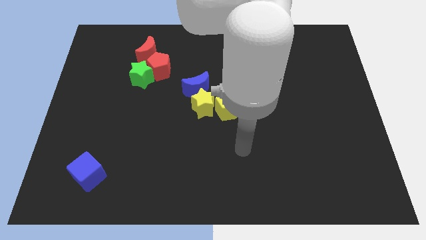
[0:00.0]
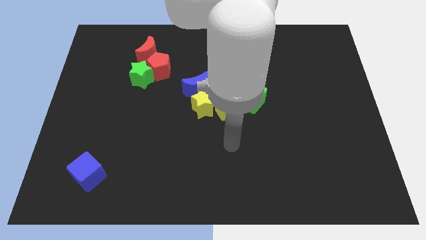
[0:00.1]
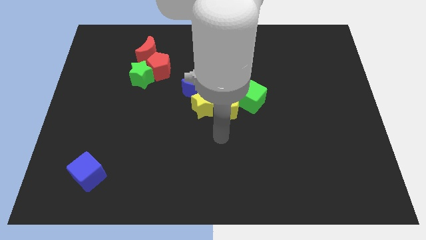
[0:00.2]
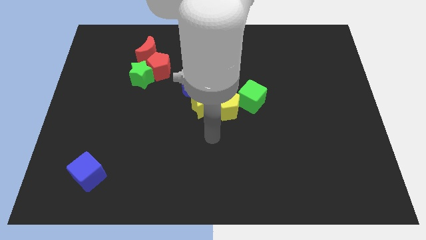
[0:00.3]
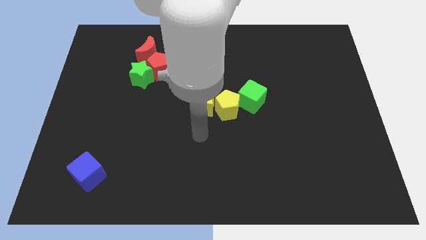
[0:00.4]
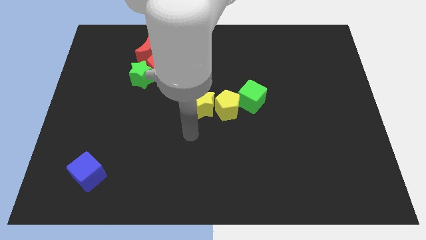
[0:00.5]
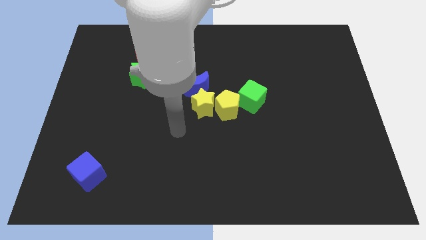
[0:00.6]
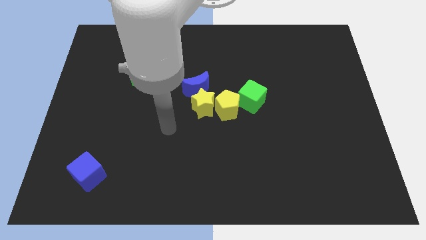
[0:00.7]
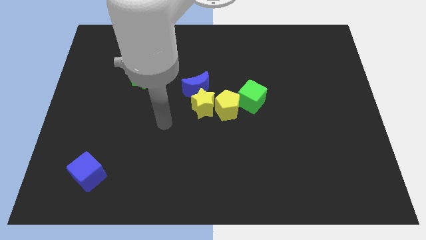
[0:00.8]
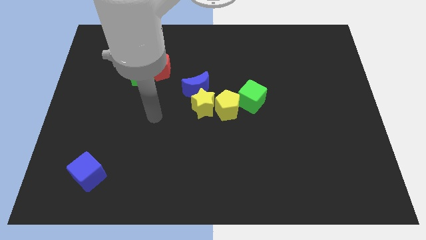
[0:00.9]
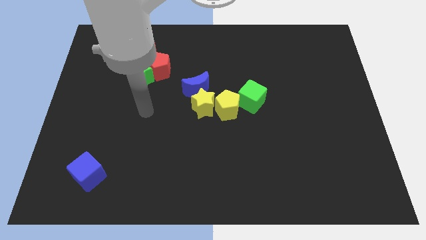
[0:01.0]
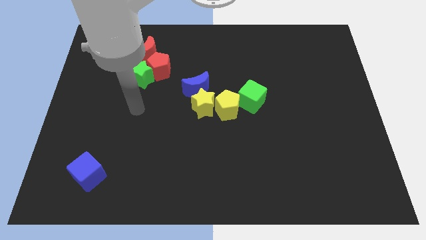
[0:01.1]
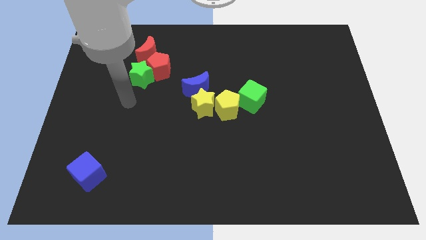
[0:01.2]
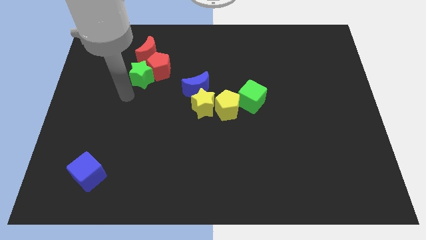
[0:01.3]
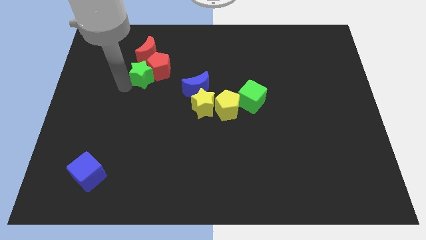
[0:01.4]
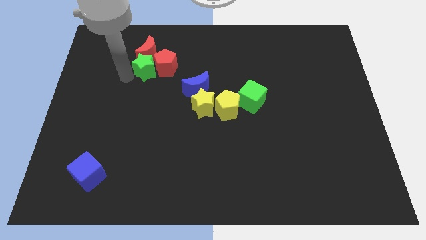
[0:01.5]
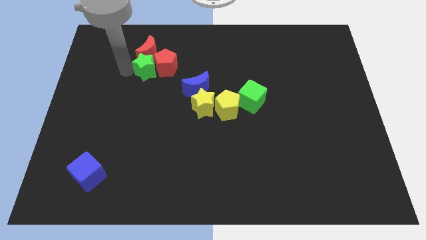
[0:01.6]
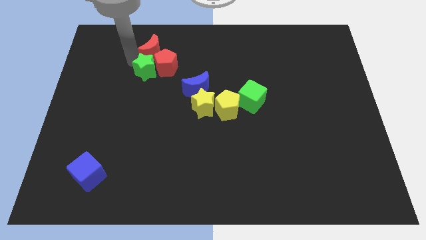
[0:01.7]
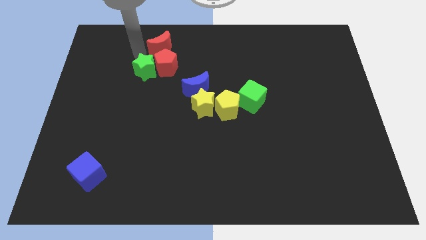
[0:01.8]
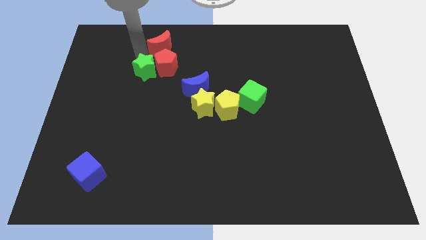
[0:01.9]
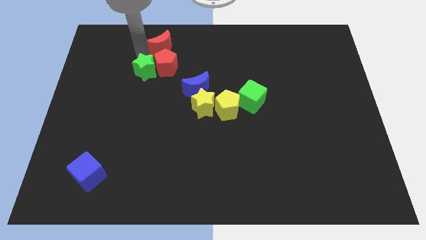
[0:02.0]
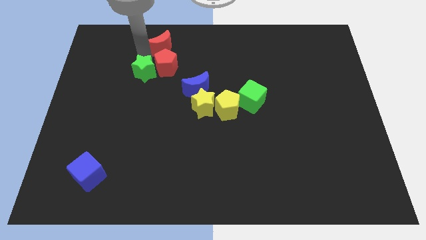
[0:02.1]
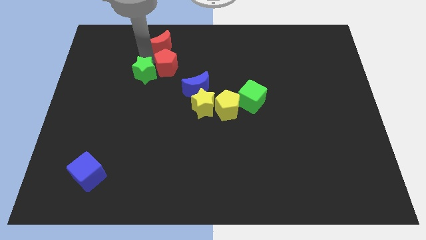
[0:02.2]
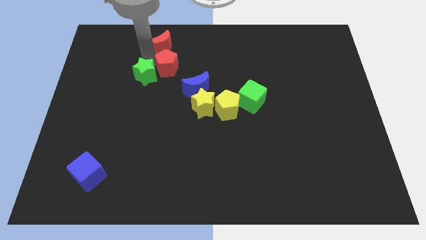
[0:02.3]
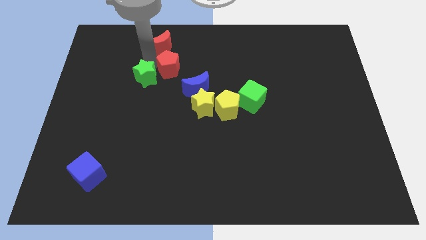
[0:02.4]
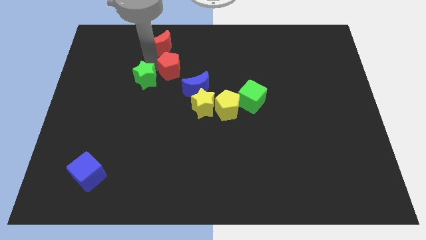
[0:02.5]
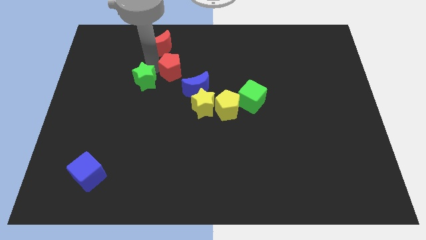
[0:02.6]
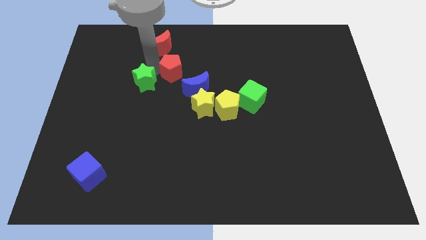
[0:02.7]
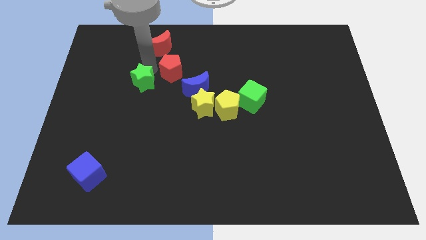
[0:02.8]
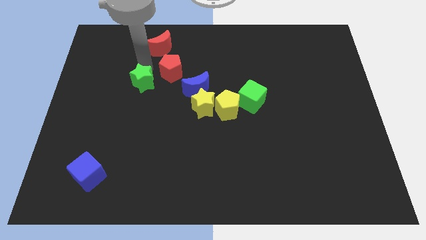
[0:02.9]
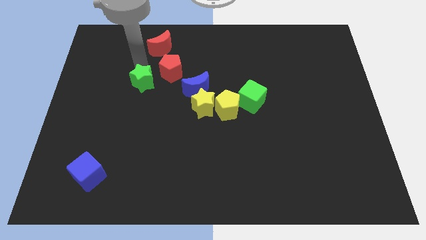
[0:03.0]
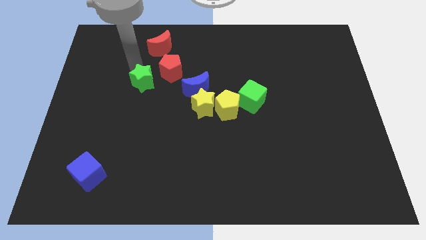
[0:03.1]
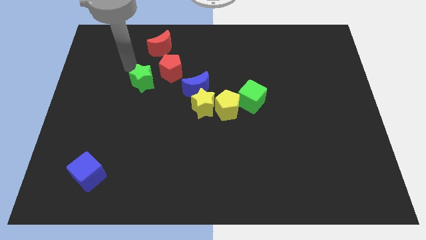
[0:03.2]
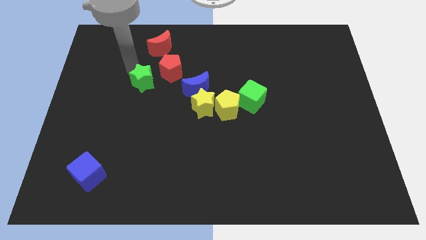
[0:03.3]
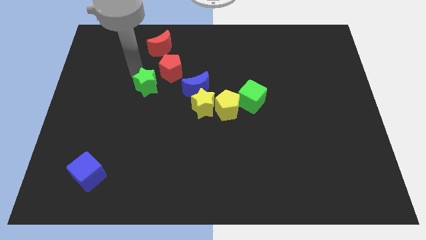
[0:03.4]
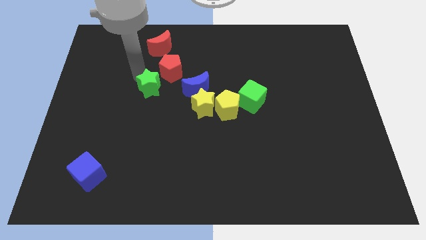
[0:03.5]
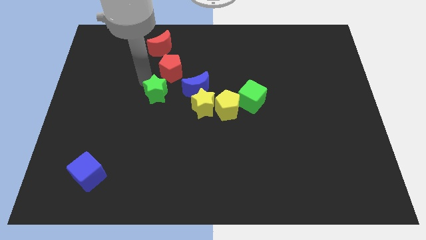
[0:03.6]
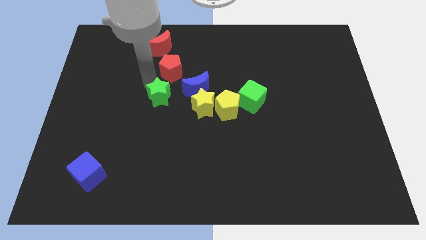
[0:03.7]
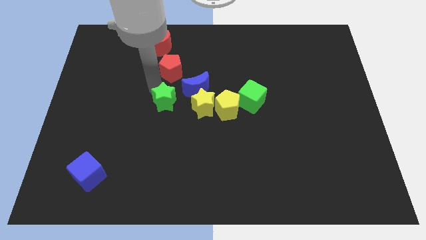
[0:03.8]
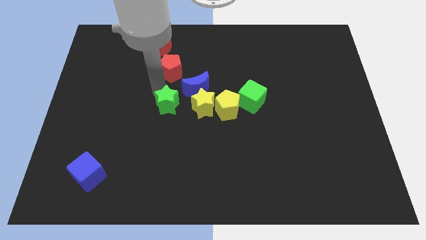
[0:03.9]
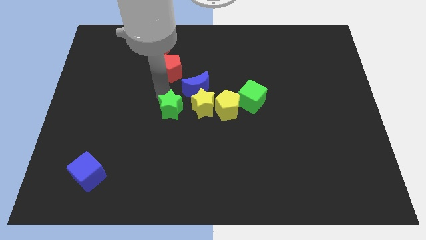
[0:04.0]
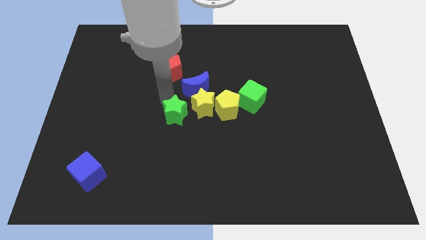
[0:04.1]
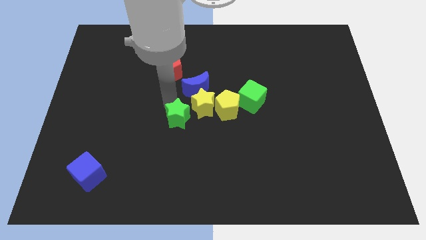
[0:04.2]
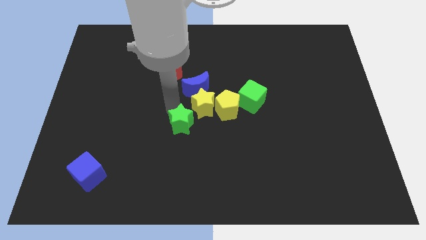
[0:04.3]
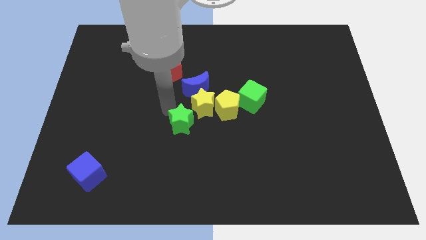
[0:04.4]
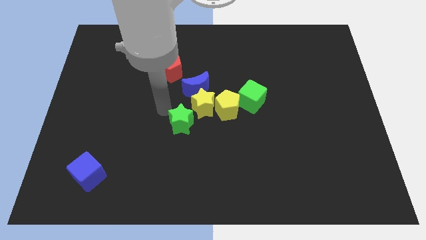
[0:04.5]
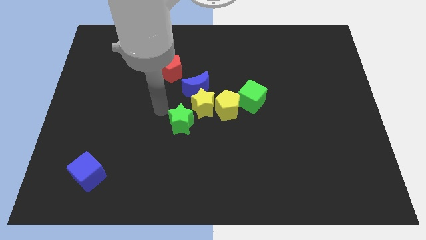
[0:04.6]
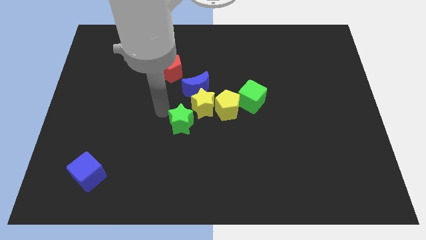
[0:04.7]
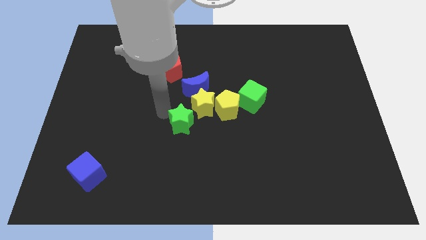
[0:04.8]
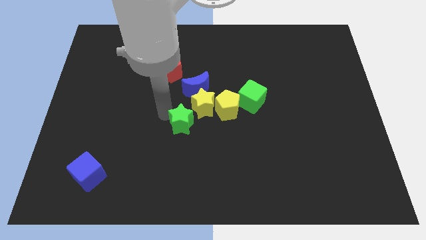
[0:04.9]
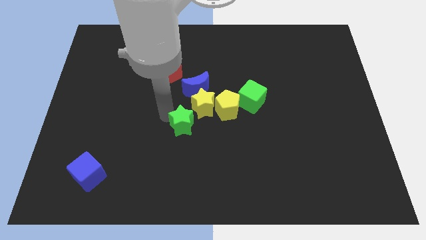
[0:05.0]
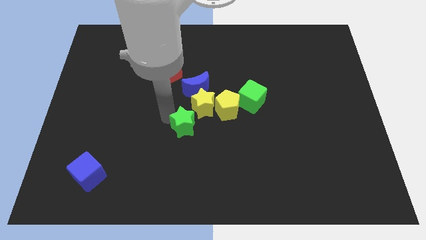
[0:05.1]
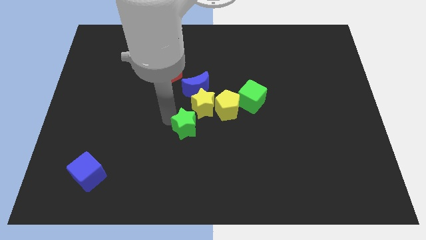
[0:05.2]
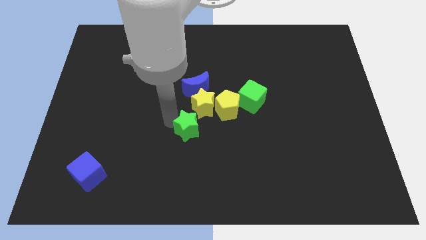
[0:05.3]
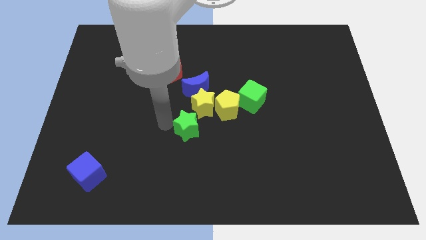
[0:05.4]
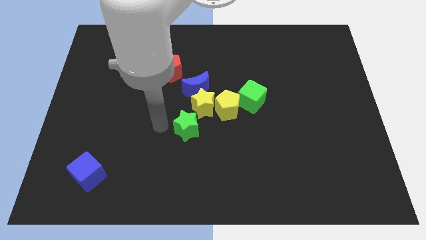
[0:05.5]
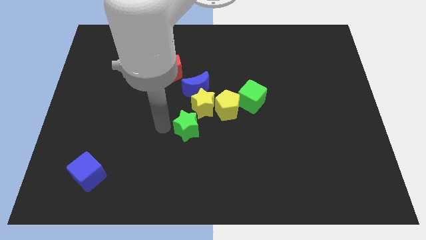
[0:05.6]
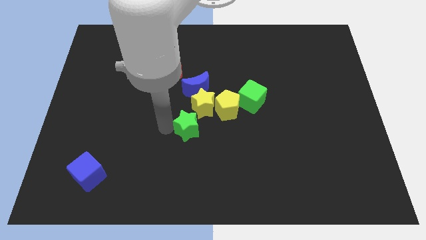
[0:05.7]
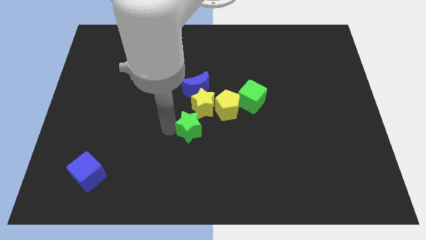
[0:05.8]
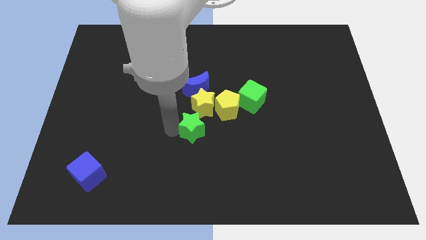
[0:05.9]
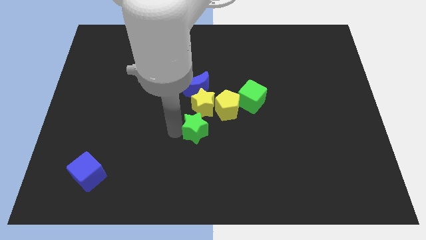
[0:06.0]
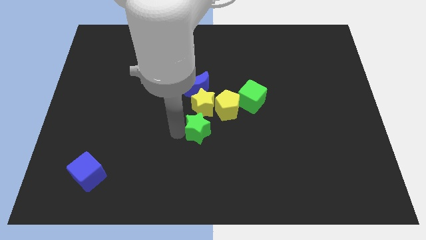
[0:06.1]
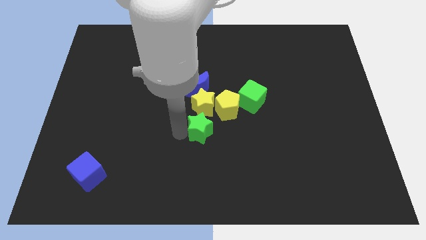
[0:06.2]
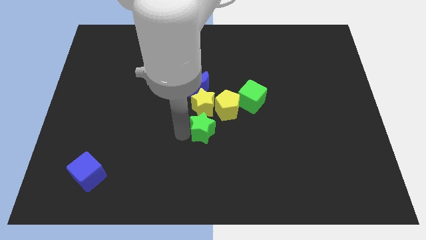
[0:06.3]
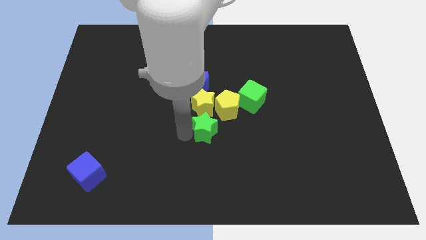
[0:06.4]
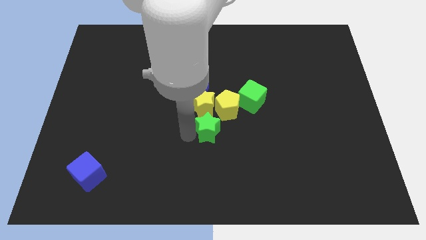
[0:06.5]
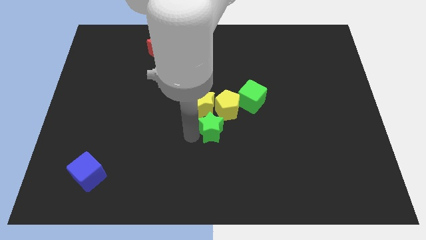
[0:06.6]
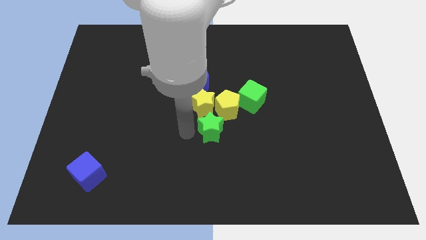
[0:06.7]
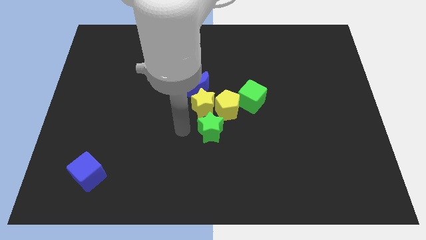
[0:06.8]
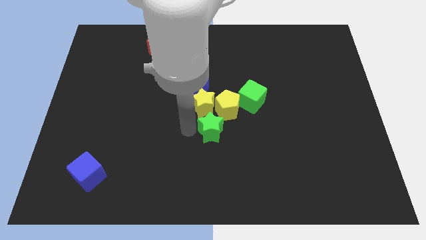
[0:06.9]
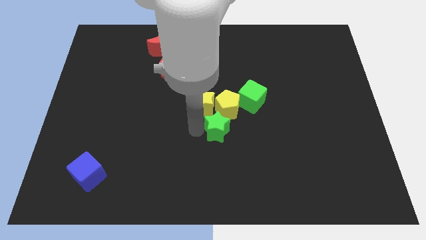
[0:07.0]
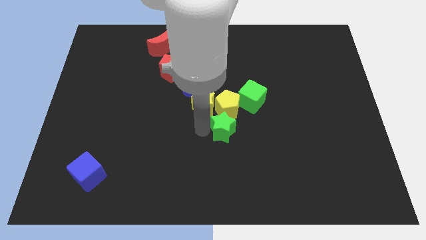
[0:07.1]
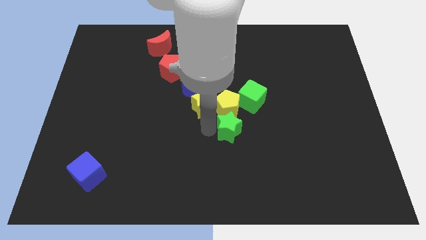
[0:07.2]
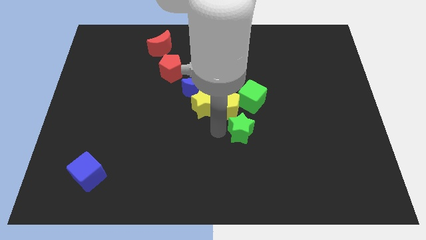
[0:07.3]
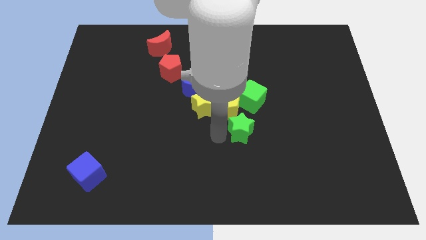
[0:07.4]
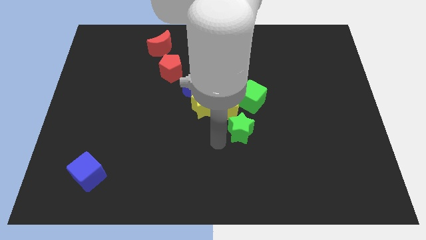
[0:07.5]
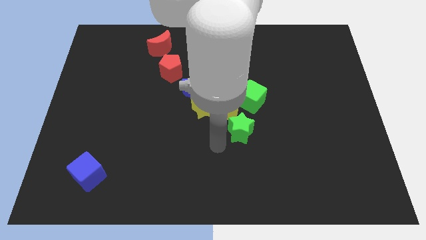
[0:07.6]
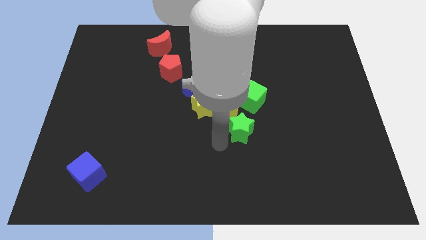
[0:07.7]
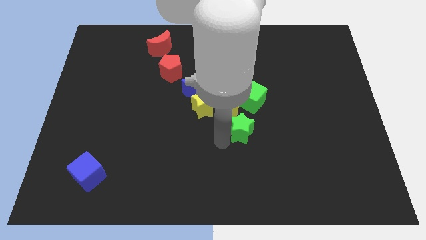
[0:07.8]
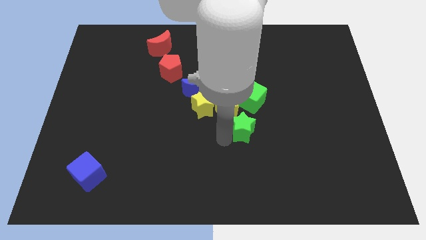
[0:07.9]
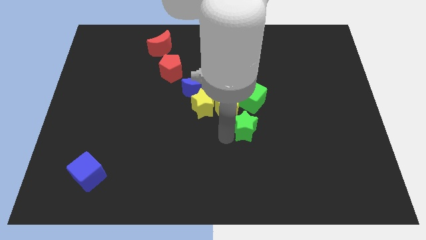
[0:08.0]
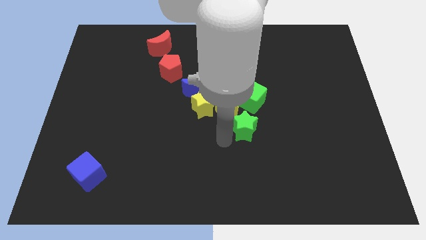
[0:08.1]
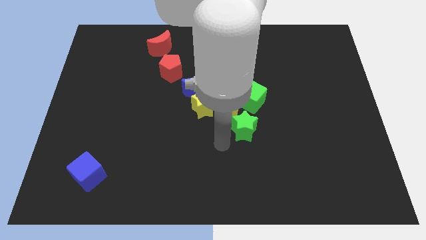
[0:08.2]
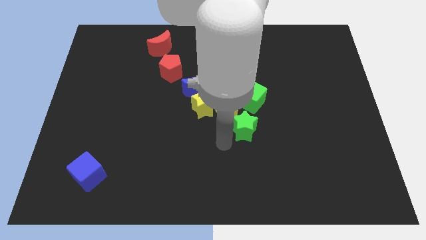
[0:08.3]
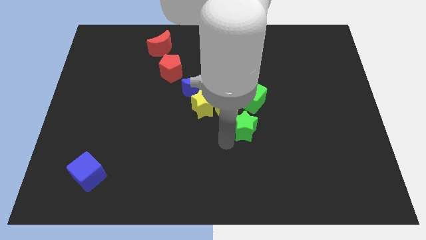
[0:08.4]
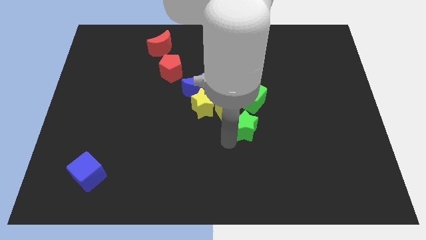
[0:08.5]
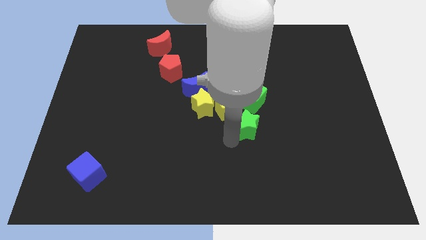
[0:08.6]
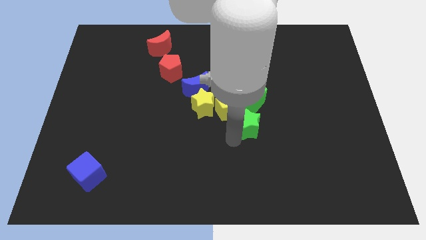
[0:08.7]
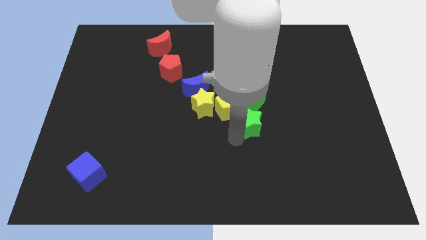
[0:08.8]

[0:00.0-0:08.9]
push the green star just right of the yellow pentagon
